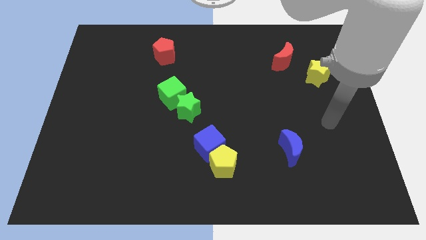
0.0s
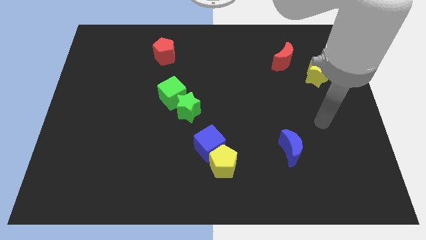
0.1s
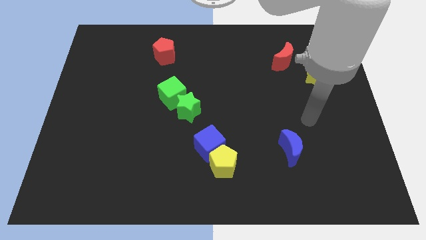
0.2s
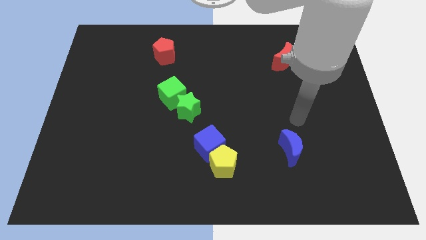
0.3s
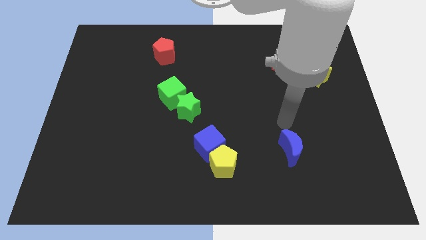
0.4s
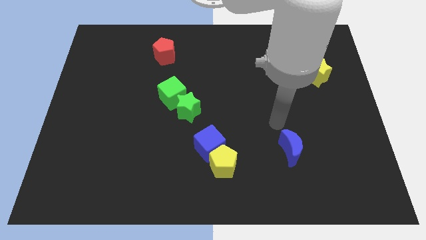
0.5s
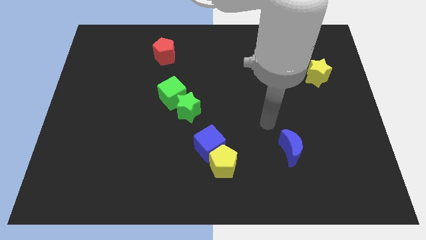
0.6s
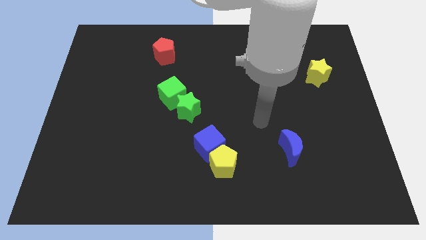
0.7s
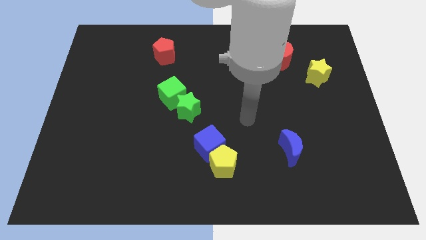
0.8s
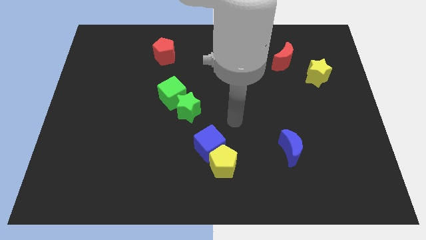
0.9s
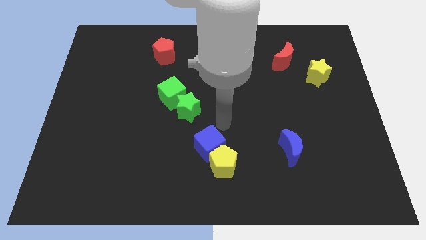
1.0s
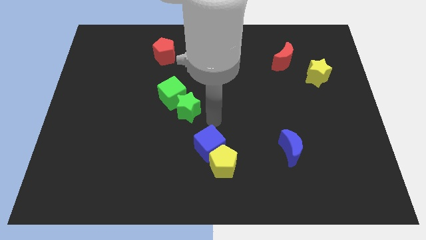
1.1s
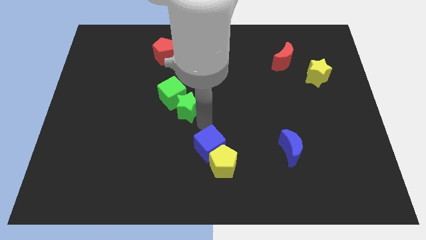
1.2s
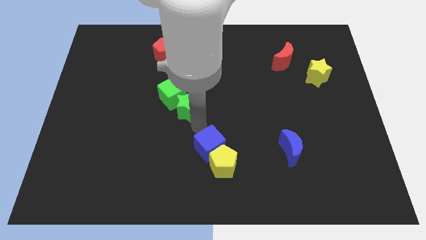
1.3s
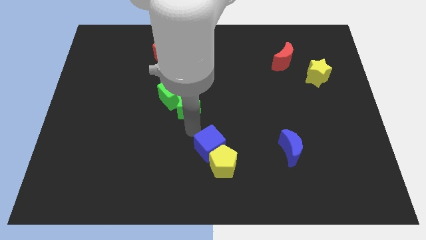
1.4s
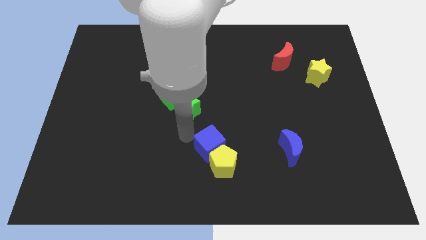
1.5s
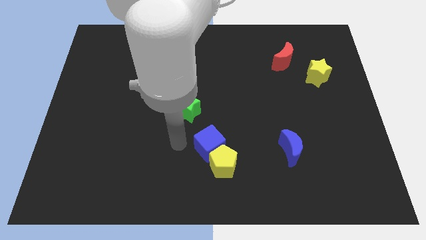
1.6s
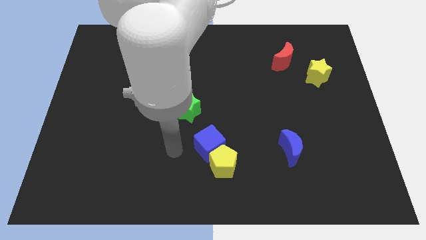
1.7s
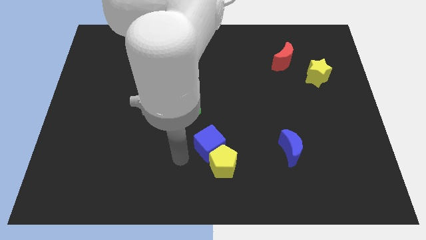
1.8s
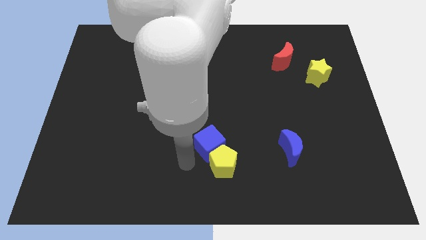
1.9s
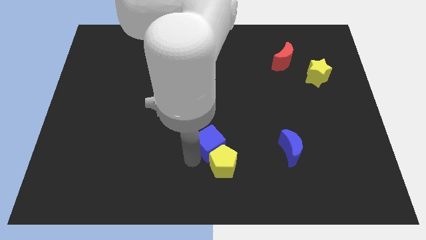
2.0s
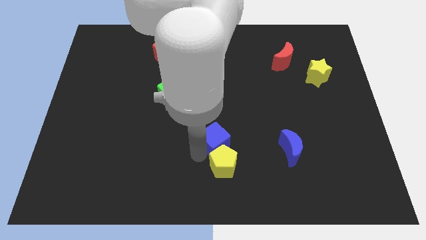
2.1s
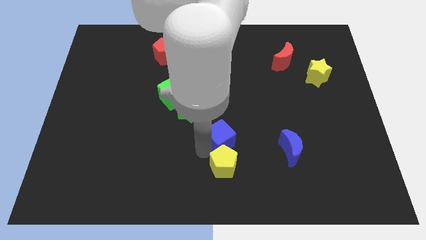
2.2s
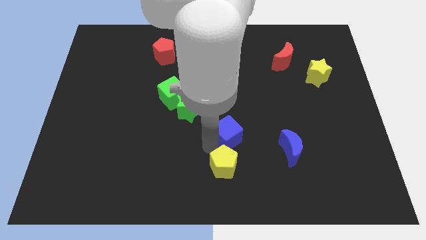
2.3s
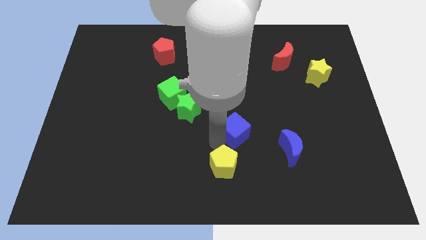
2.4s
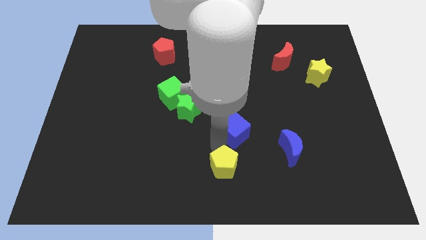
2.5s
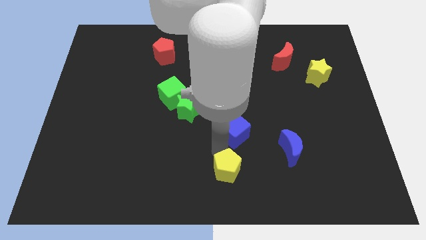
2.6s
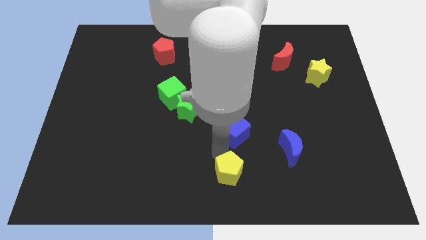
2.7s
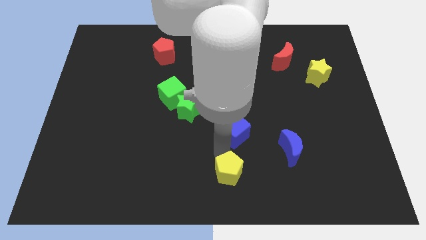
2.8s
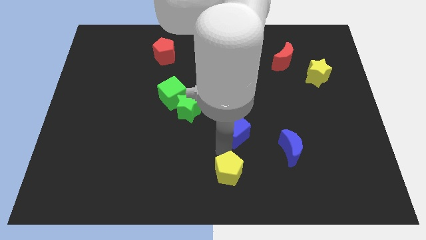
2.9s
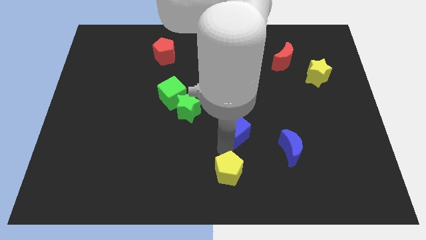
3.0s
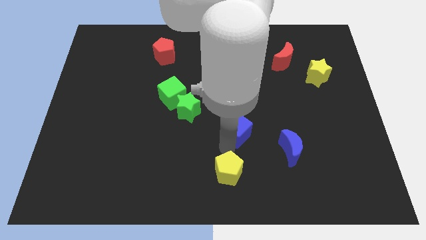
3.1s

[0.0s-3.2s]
slightly push the blue cube up and right

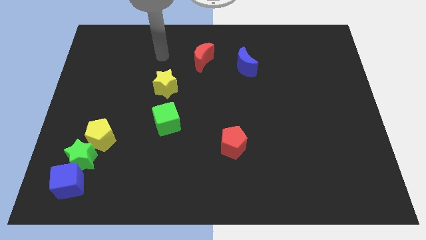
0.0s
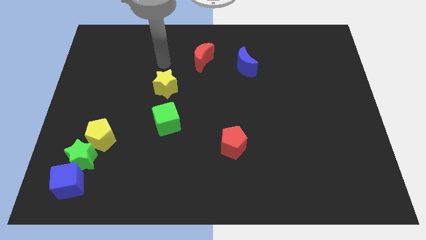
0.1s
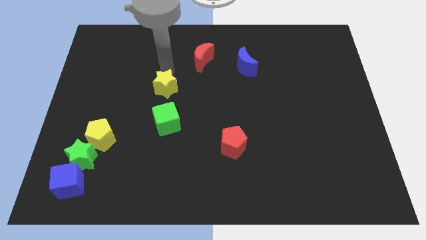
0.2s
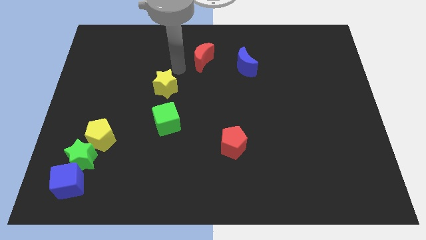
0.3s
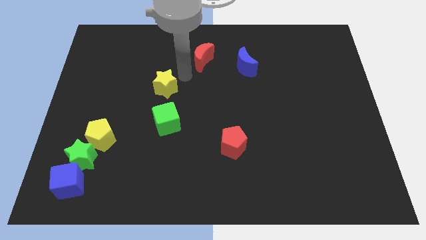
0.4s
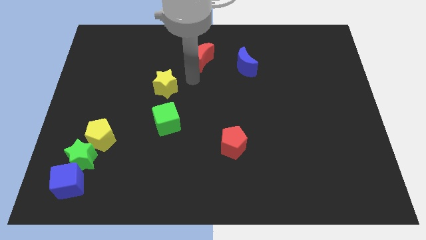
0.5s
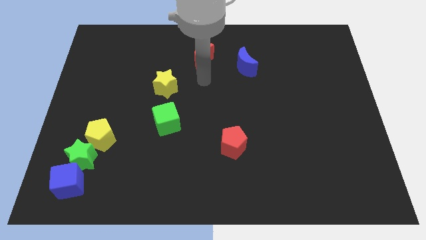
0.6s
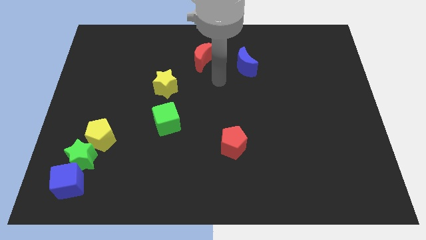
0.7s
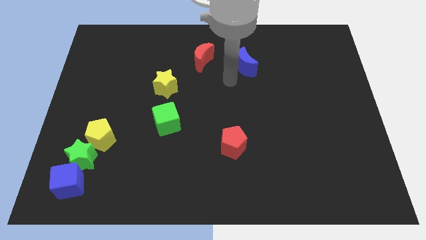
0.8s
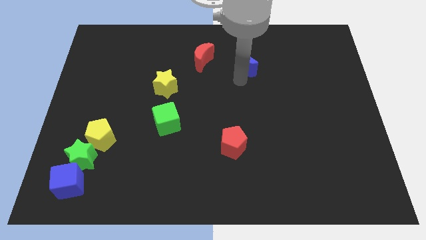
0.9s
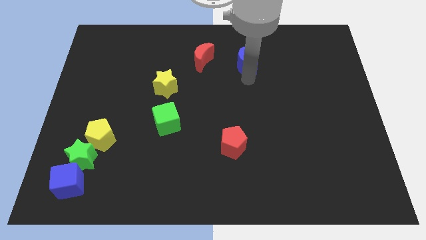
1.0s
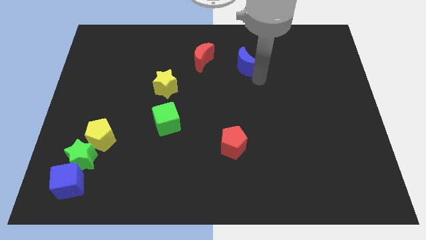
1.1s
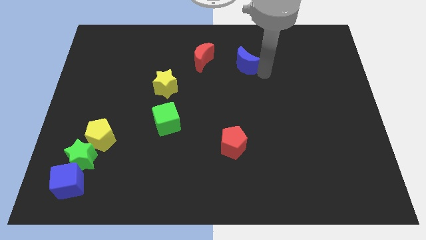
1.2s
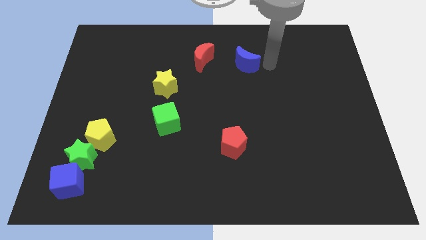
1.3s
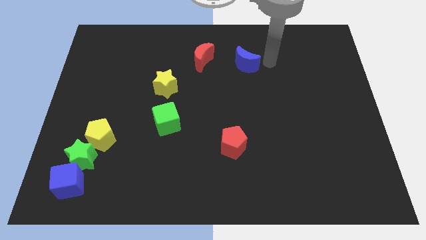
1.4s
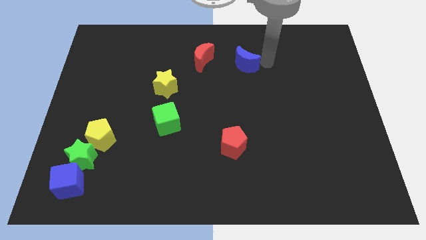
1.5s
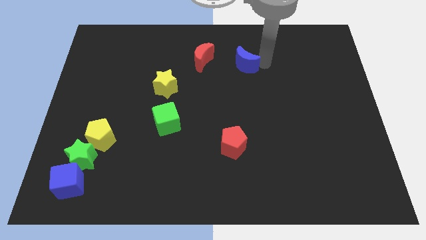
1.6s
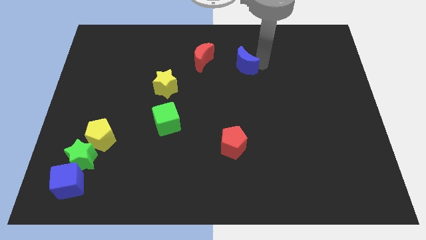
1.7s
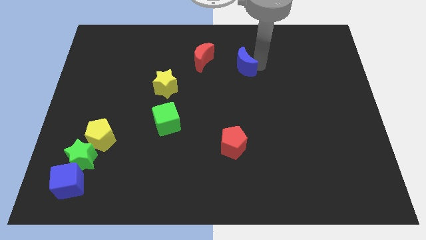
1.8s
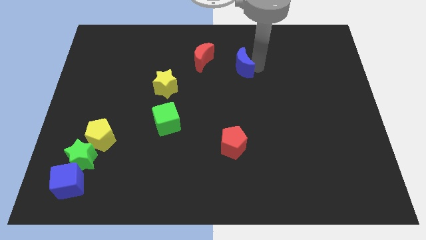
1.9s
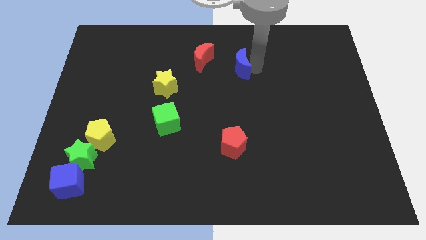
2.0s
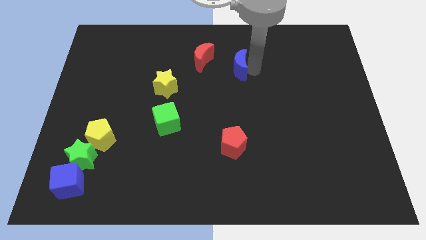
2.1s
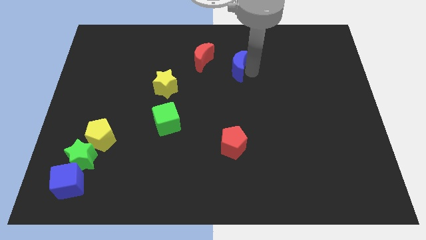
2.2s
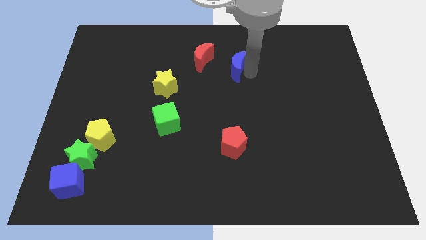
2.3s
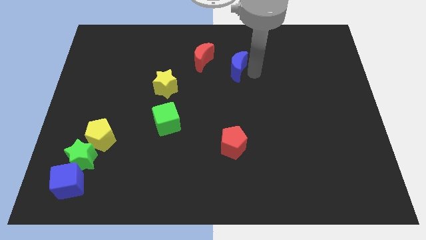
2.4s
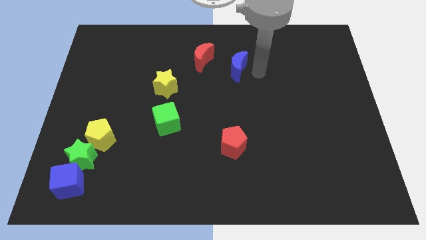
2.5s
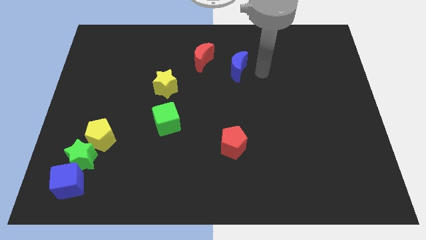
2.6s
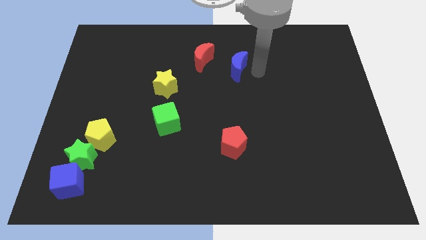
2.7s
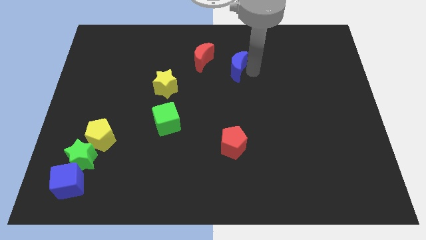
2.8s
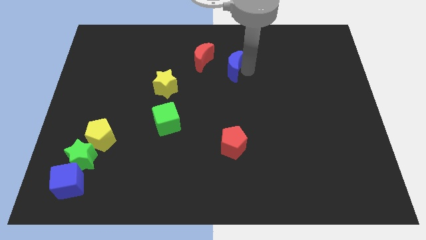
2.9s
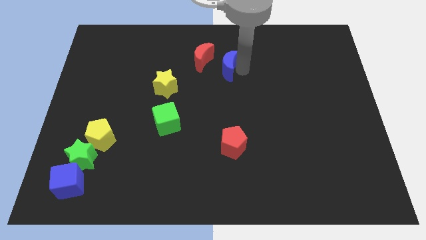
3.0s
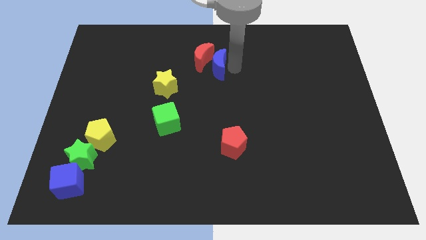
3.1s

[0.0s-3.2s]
push the blue moon somewhat left

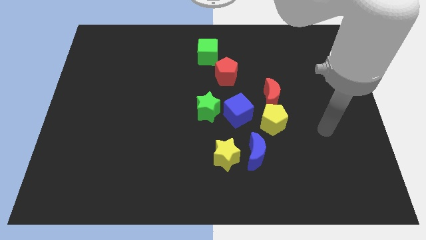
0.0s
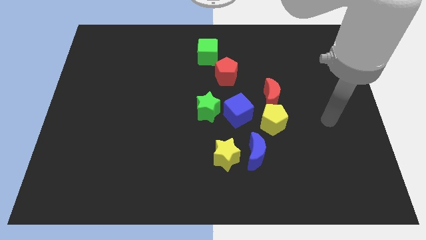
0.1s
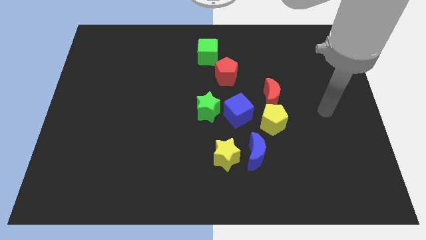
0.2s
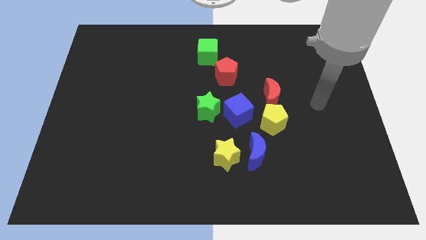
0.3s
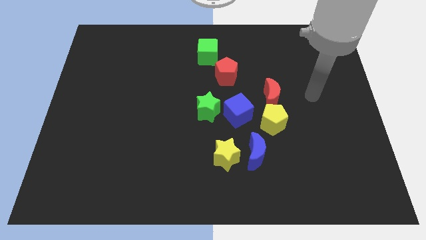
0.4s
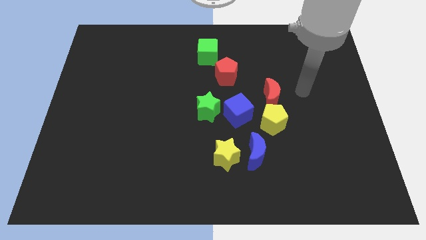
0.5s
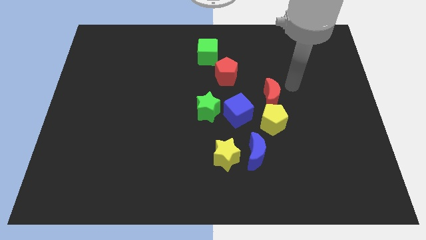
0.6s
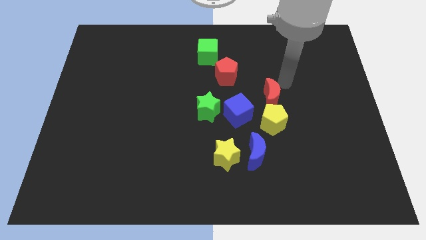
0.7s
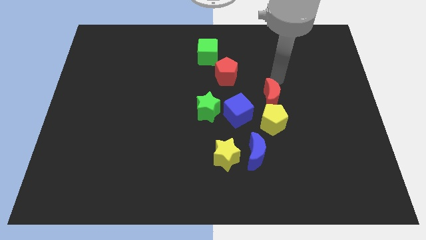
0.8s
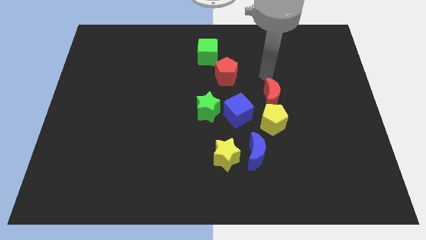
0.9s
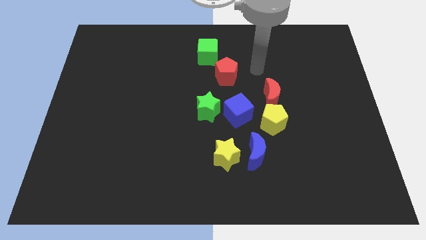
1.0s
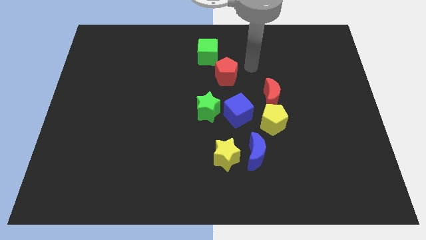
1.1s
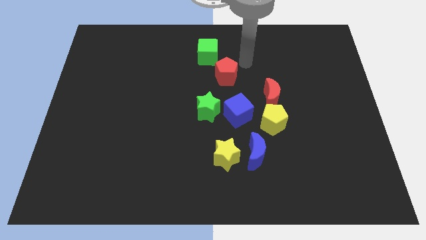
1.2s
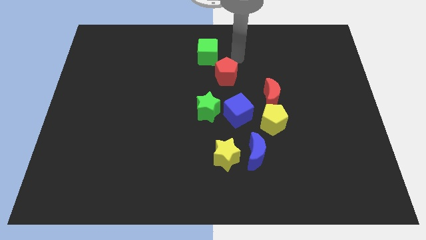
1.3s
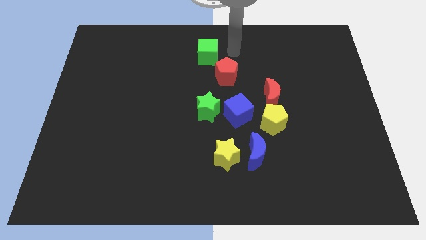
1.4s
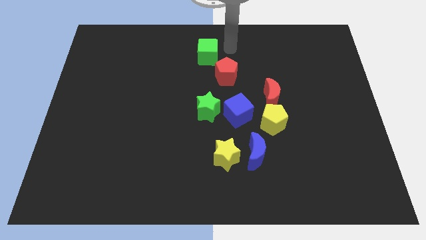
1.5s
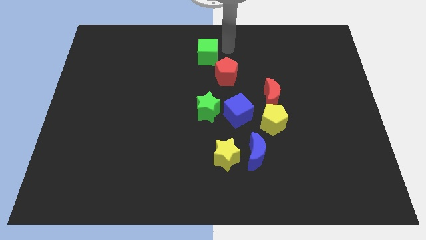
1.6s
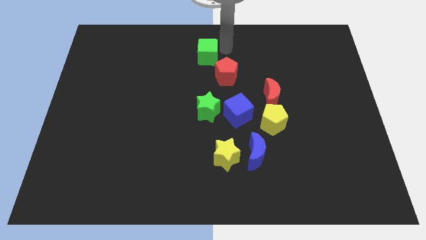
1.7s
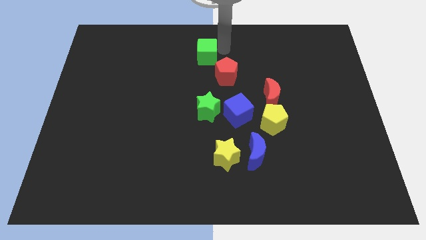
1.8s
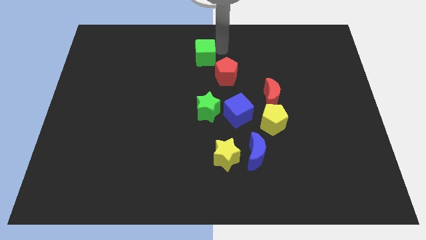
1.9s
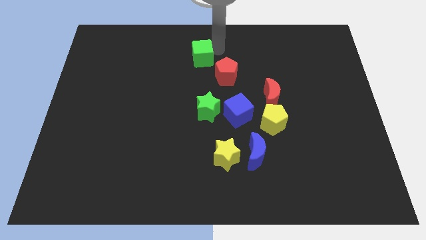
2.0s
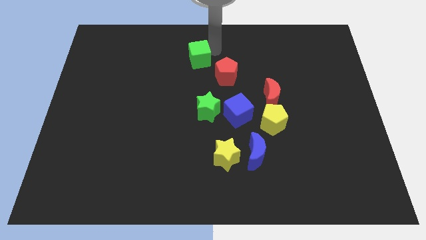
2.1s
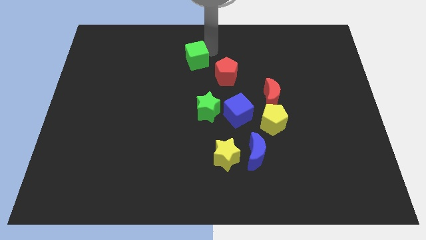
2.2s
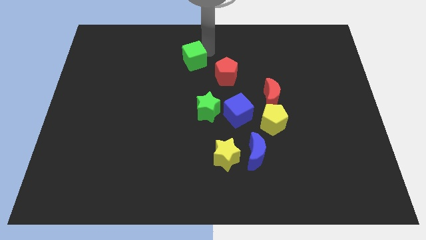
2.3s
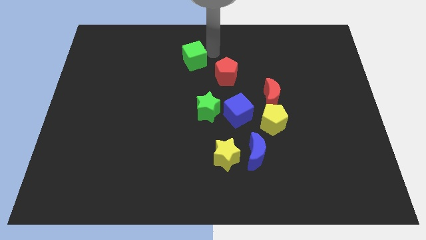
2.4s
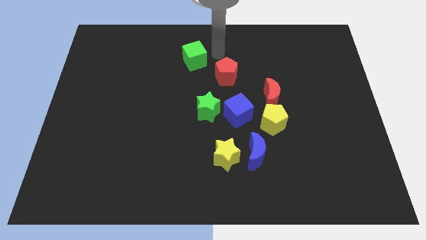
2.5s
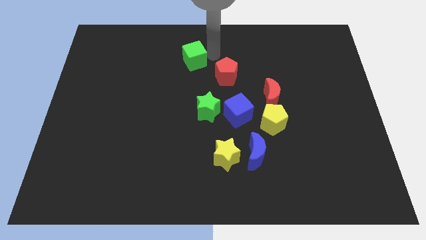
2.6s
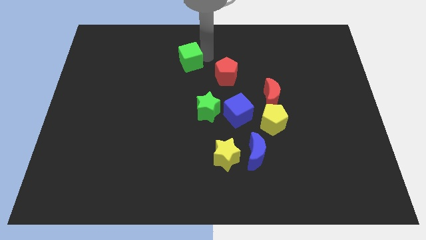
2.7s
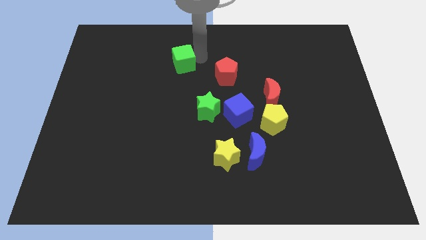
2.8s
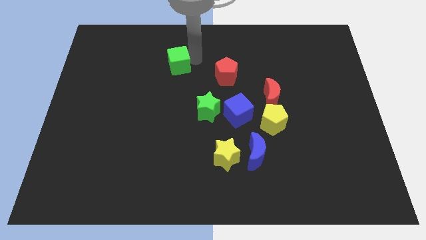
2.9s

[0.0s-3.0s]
slightly move the green cube left
